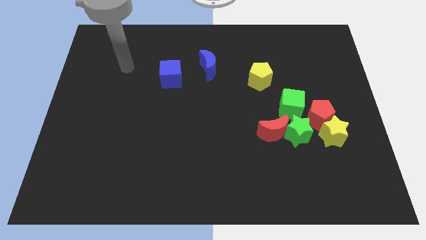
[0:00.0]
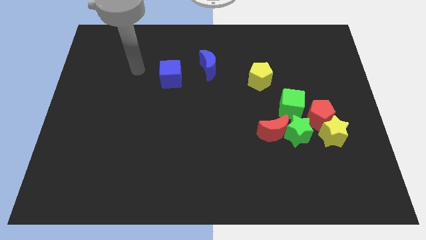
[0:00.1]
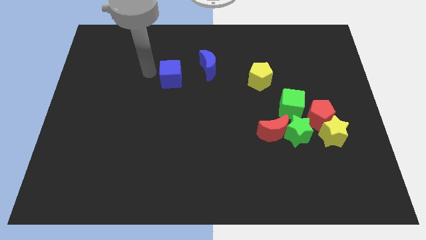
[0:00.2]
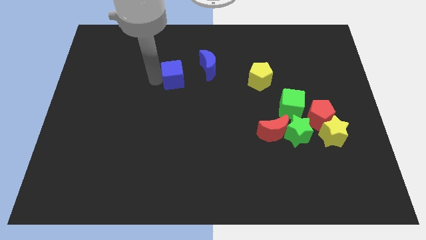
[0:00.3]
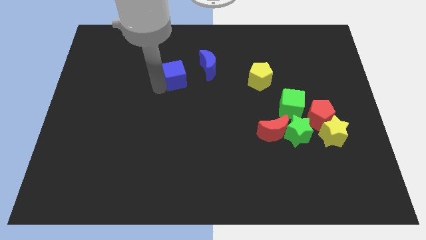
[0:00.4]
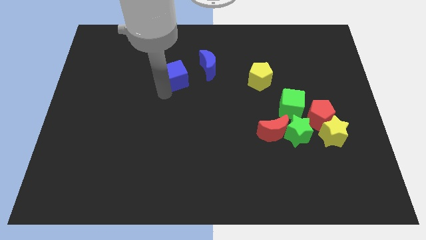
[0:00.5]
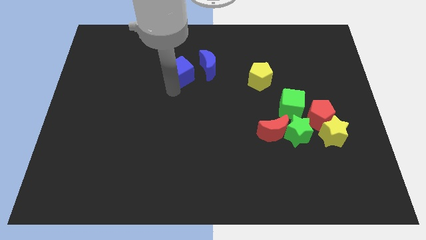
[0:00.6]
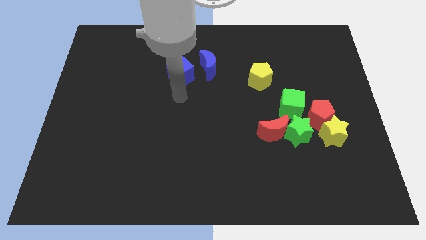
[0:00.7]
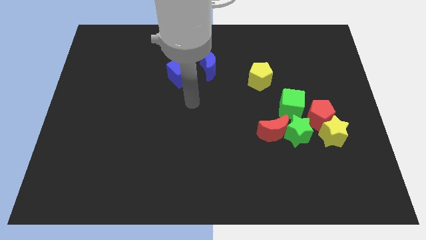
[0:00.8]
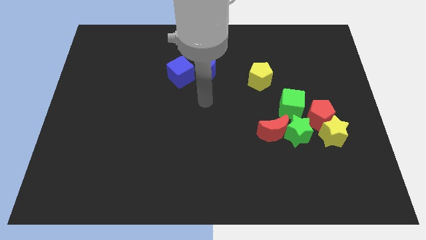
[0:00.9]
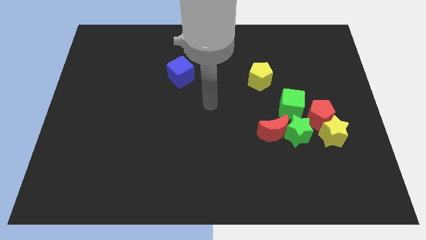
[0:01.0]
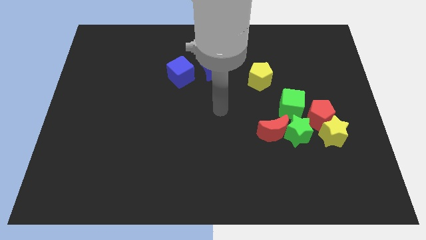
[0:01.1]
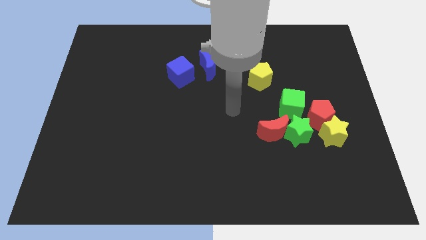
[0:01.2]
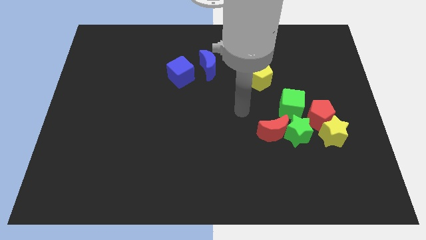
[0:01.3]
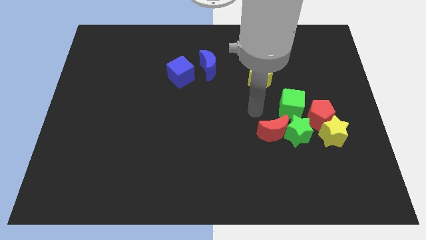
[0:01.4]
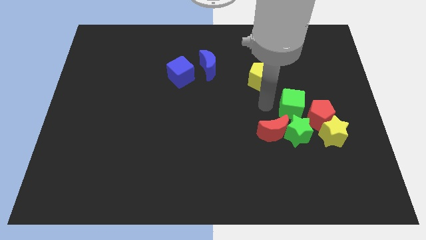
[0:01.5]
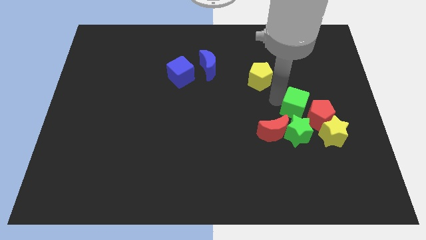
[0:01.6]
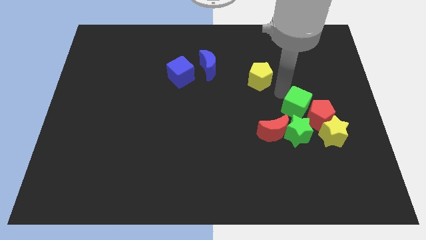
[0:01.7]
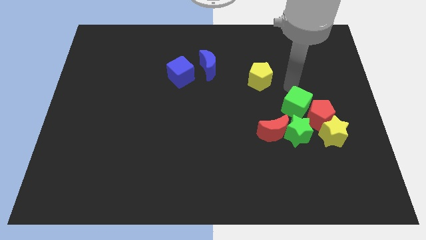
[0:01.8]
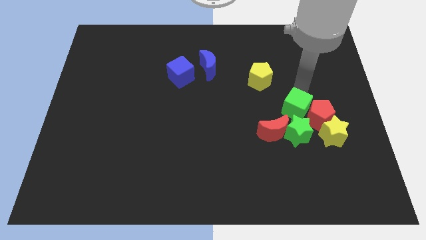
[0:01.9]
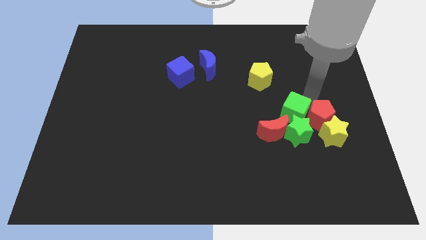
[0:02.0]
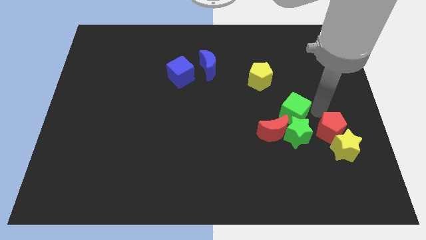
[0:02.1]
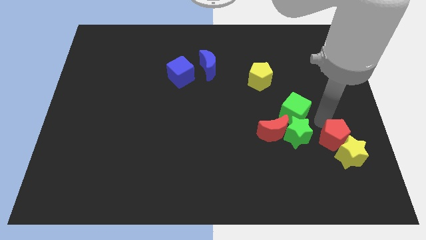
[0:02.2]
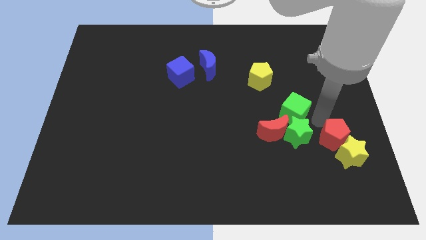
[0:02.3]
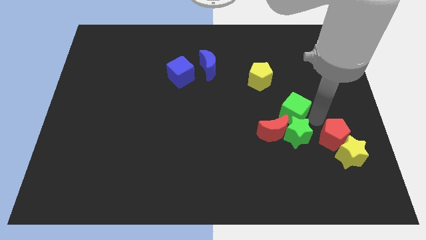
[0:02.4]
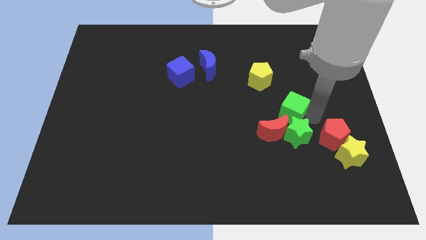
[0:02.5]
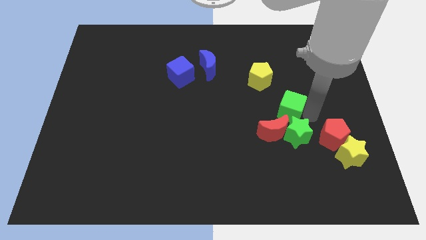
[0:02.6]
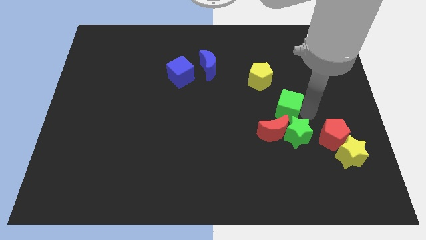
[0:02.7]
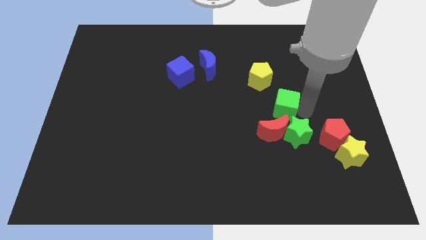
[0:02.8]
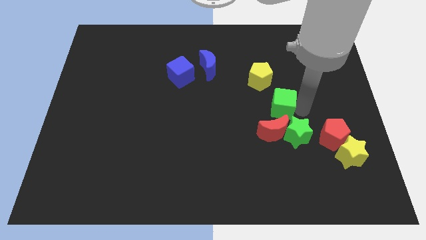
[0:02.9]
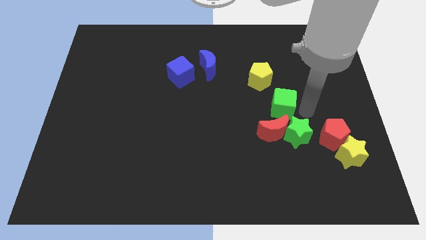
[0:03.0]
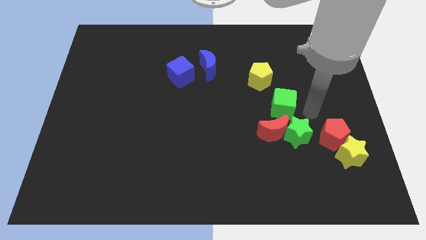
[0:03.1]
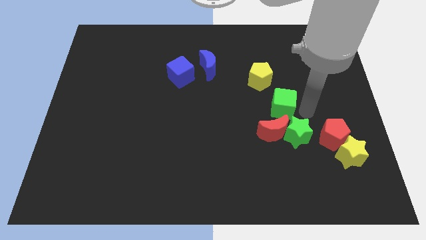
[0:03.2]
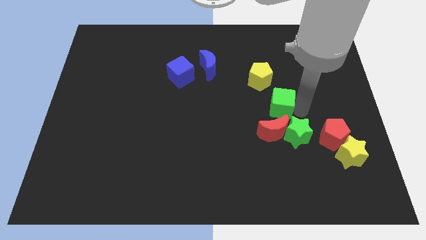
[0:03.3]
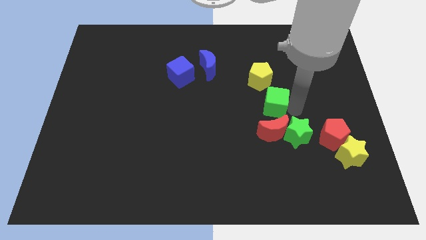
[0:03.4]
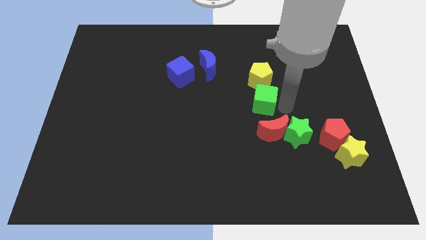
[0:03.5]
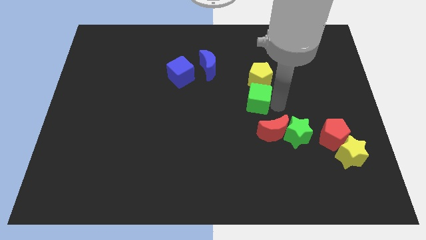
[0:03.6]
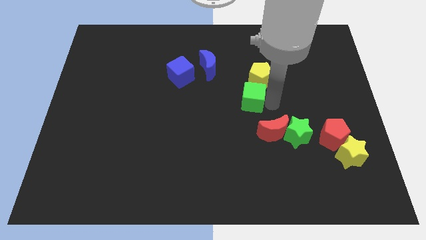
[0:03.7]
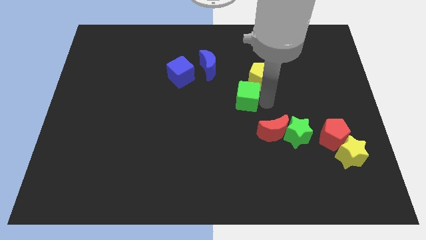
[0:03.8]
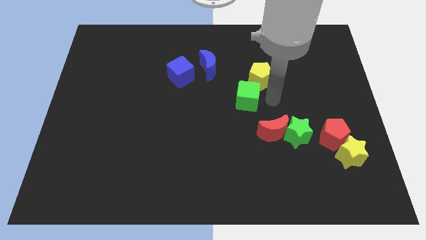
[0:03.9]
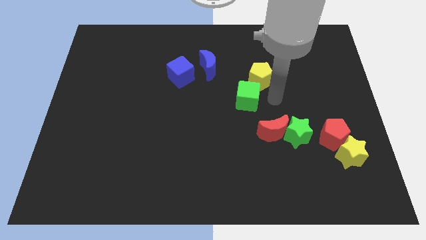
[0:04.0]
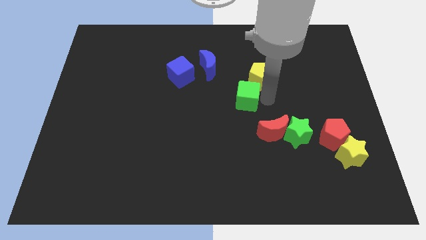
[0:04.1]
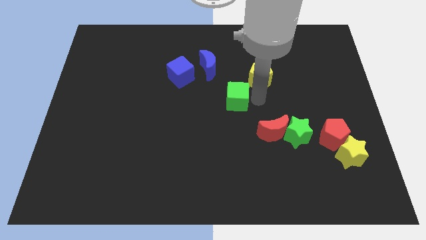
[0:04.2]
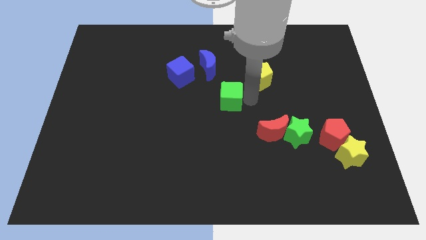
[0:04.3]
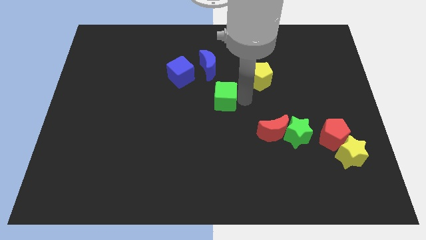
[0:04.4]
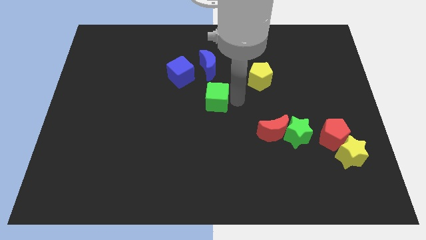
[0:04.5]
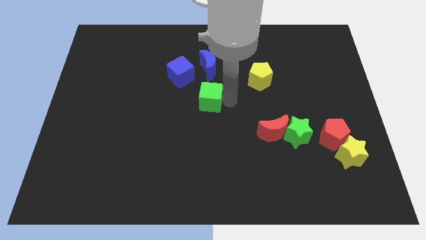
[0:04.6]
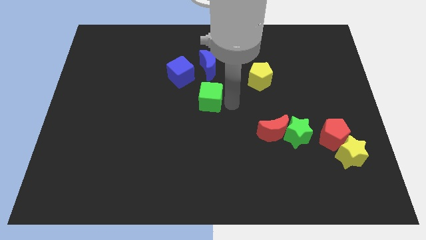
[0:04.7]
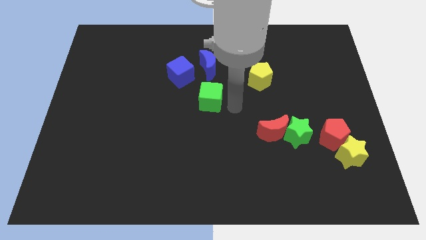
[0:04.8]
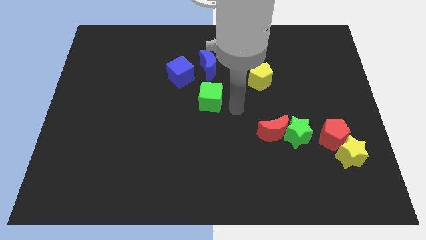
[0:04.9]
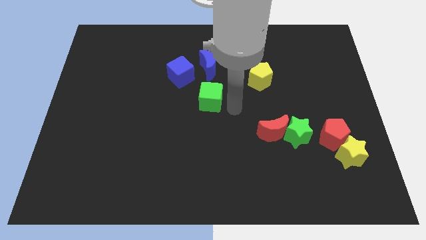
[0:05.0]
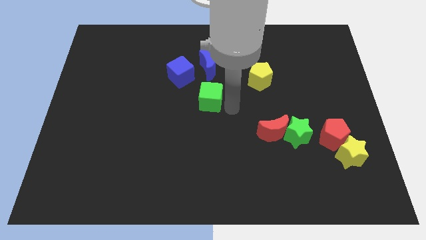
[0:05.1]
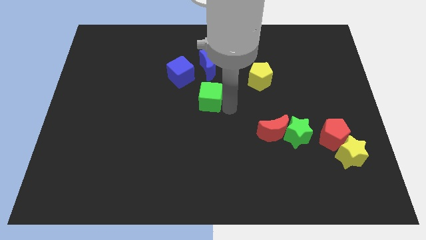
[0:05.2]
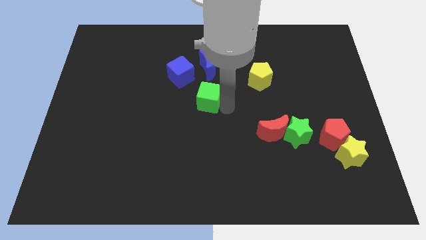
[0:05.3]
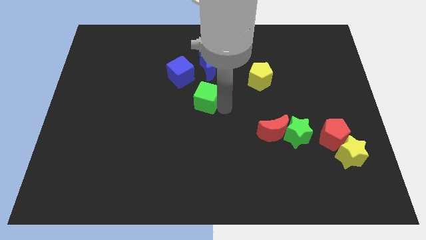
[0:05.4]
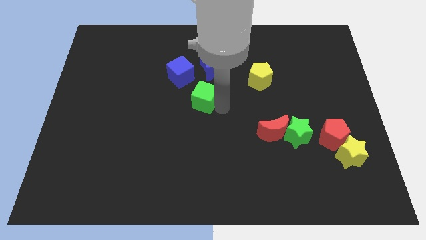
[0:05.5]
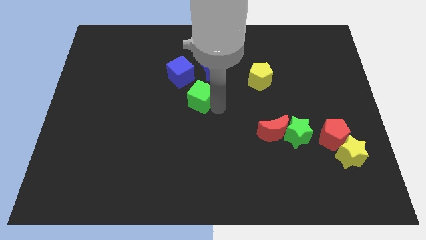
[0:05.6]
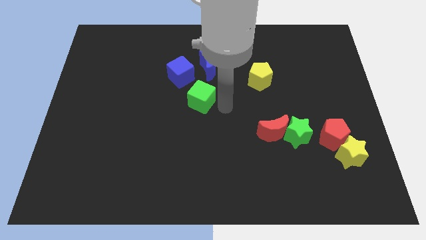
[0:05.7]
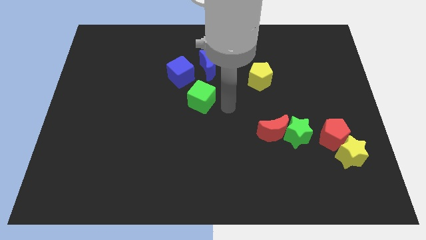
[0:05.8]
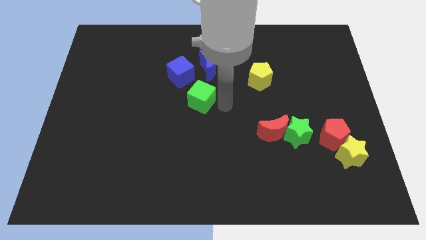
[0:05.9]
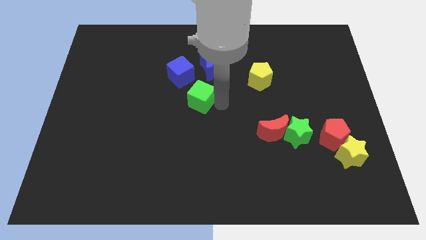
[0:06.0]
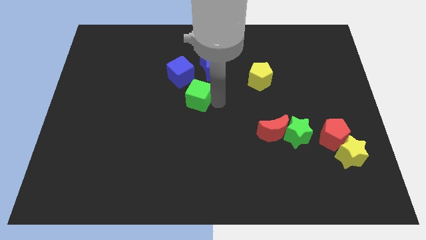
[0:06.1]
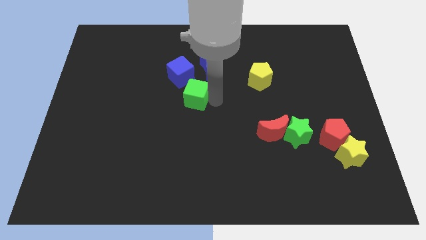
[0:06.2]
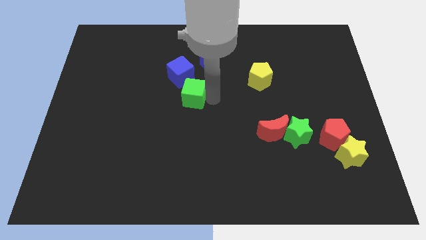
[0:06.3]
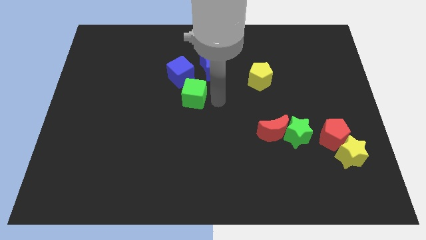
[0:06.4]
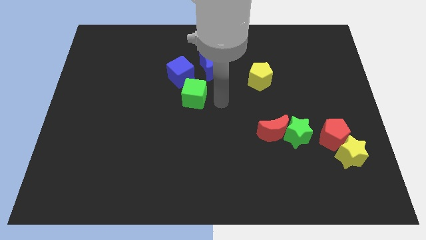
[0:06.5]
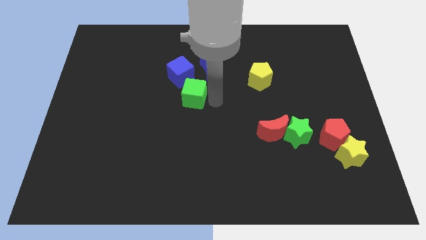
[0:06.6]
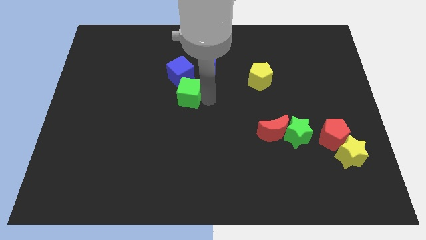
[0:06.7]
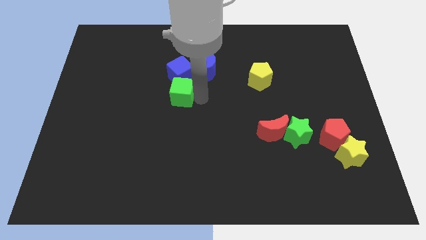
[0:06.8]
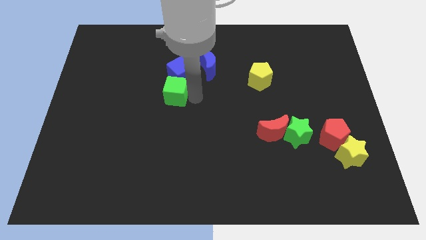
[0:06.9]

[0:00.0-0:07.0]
push the green cube diagonally down and to the left of the blue cube
